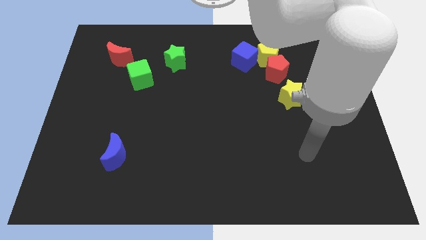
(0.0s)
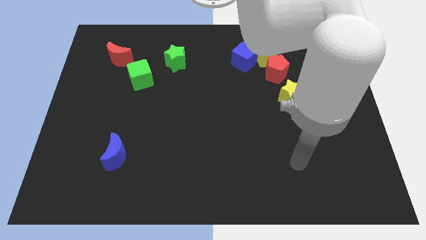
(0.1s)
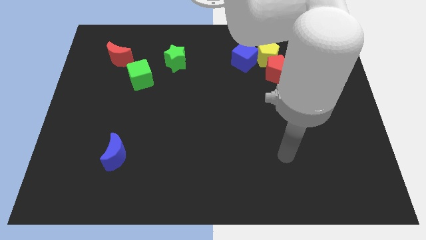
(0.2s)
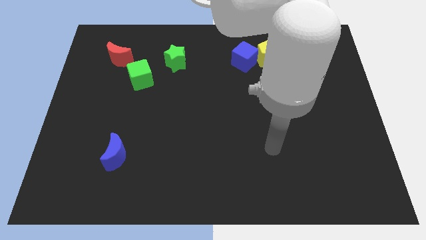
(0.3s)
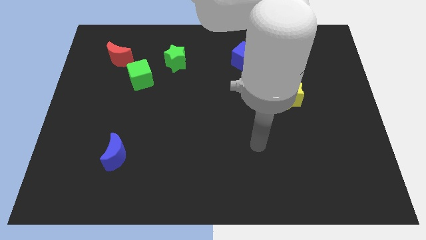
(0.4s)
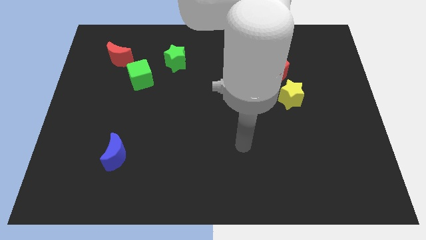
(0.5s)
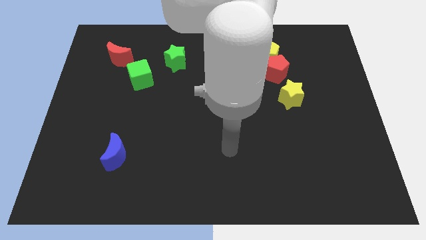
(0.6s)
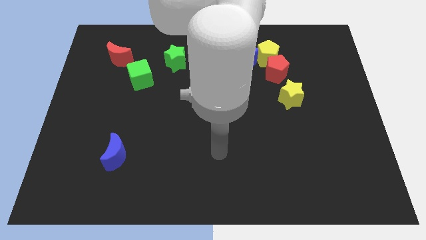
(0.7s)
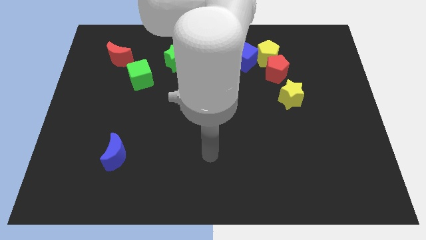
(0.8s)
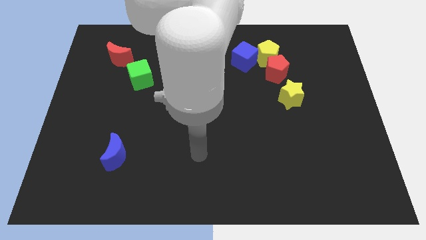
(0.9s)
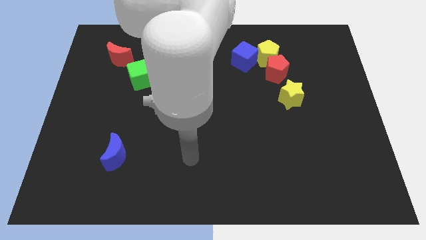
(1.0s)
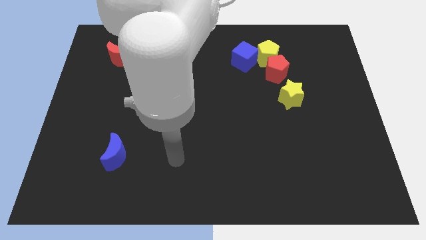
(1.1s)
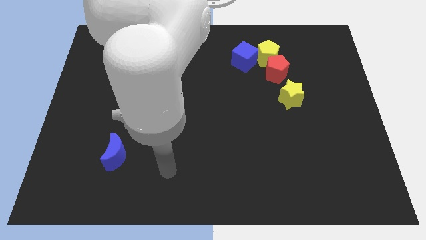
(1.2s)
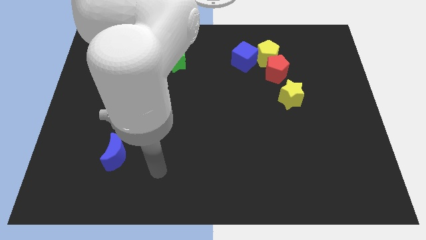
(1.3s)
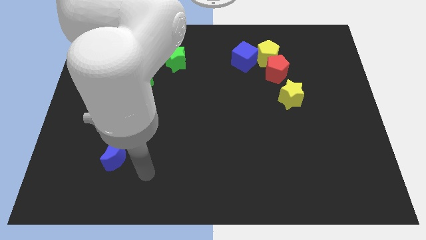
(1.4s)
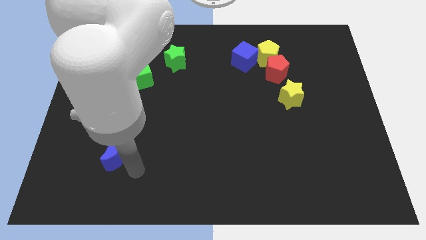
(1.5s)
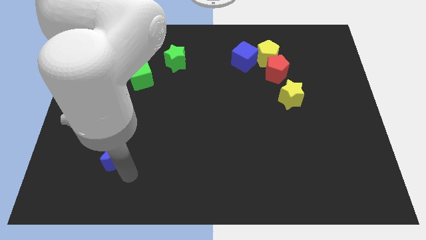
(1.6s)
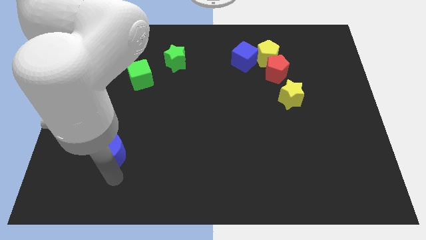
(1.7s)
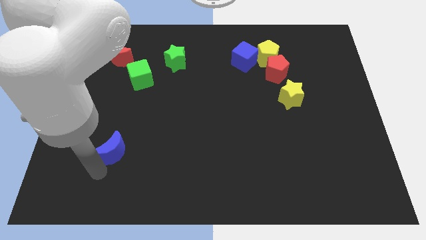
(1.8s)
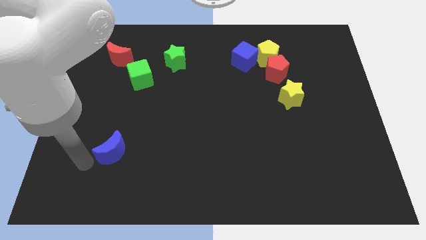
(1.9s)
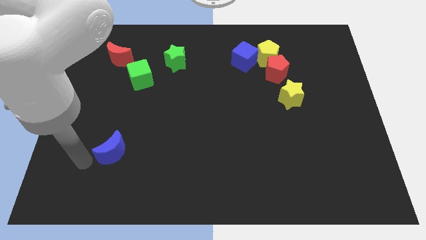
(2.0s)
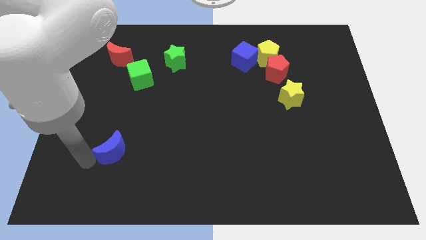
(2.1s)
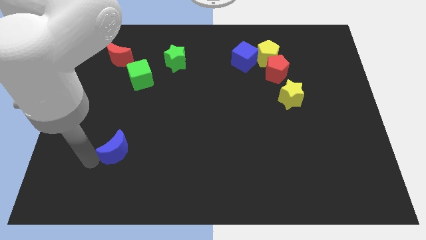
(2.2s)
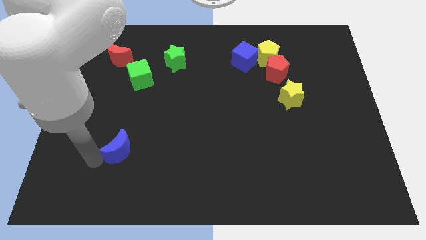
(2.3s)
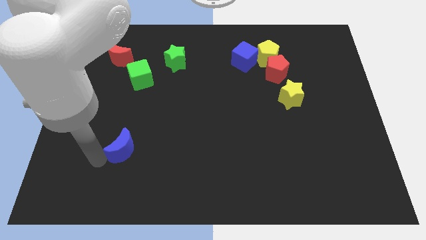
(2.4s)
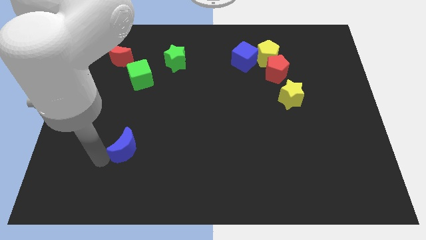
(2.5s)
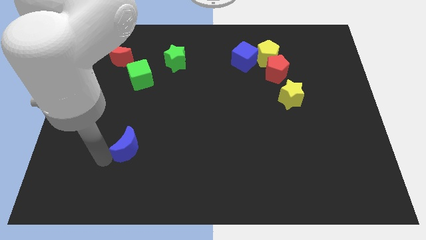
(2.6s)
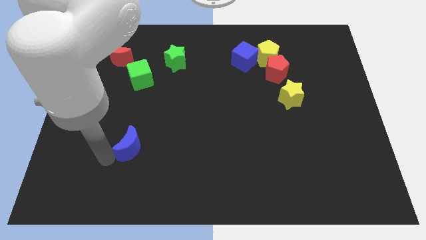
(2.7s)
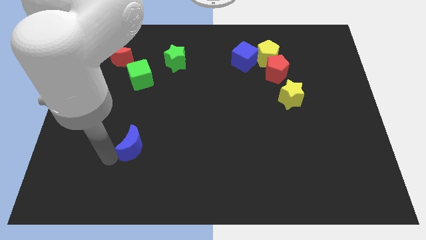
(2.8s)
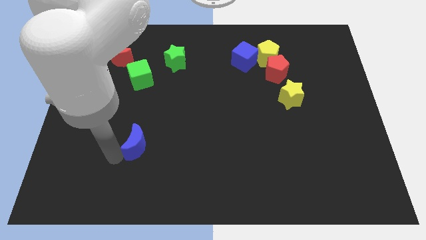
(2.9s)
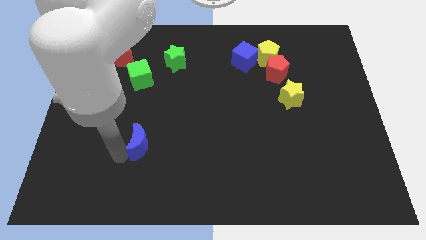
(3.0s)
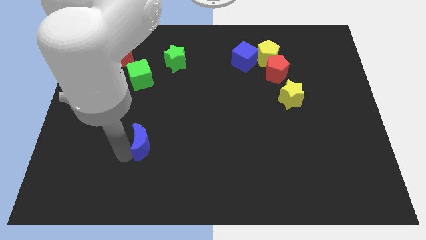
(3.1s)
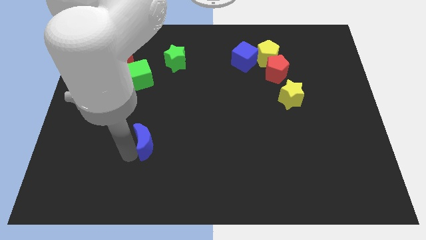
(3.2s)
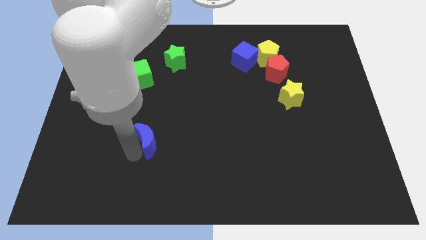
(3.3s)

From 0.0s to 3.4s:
slide the blue moon diagonally up and right slightly

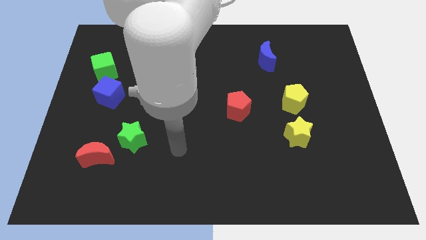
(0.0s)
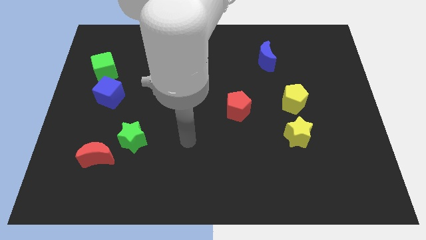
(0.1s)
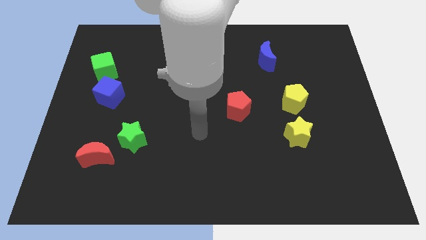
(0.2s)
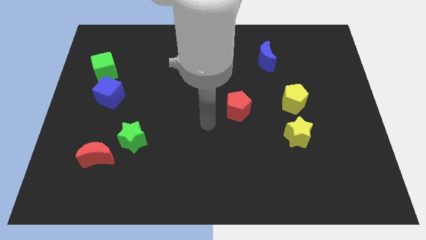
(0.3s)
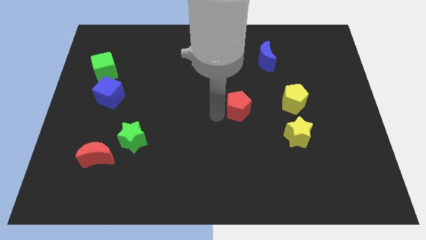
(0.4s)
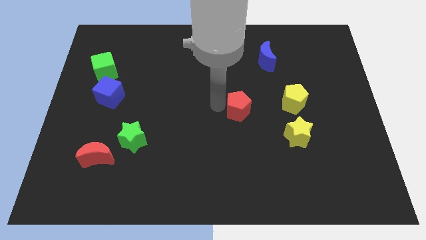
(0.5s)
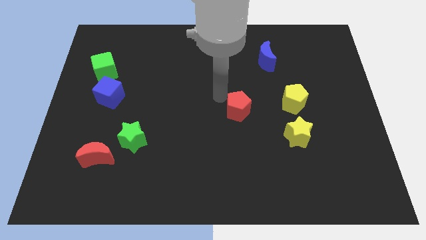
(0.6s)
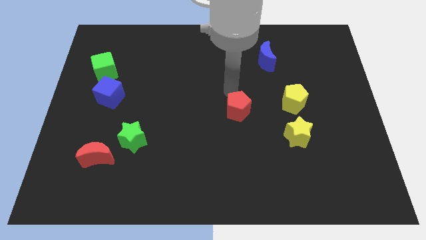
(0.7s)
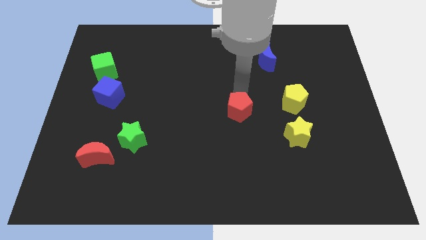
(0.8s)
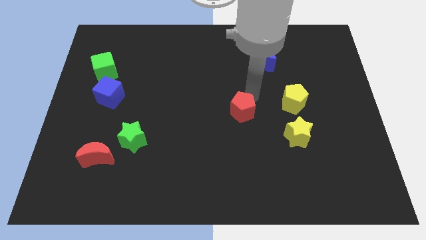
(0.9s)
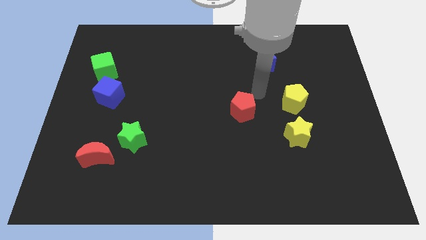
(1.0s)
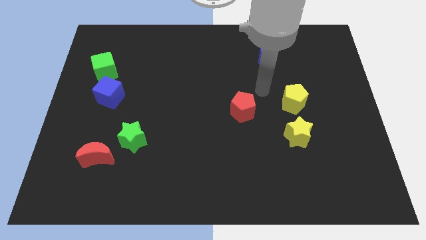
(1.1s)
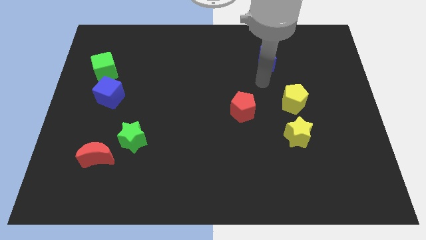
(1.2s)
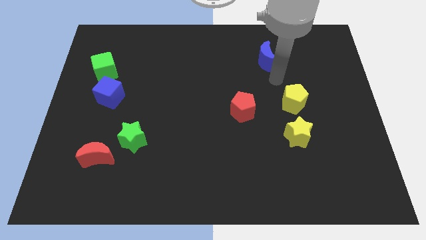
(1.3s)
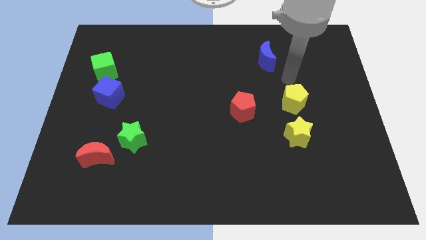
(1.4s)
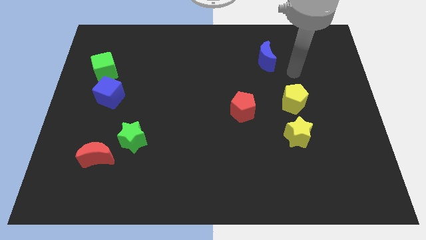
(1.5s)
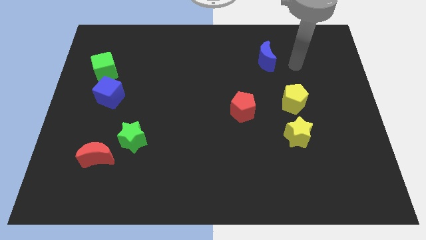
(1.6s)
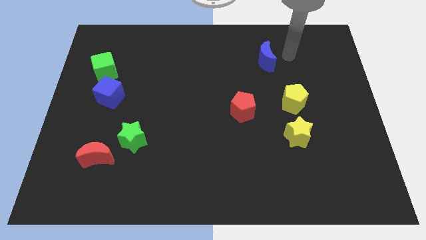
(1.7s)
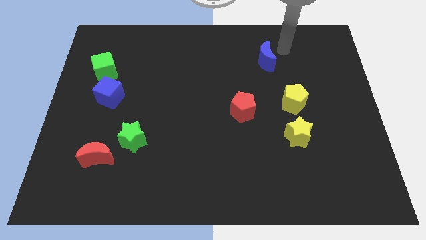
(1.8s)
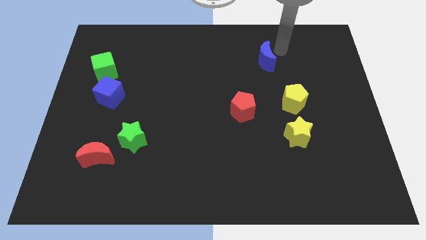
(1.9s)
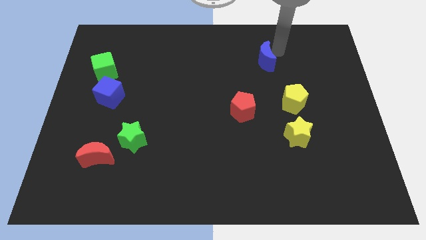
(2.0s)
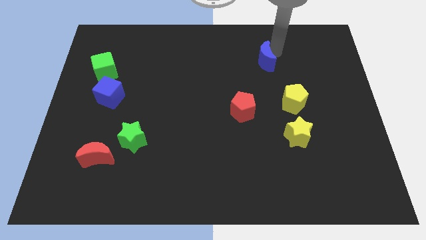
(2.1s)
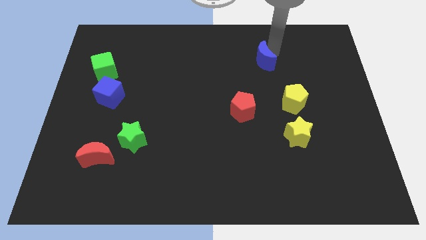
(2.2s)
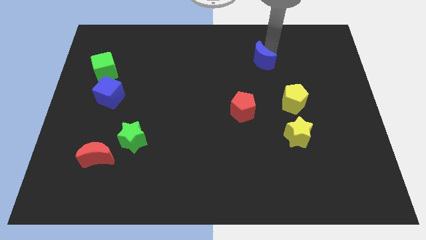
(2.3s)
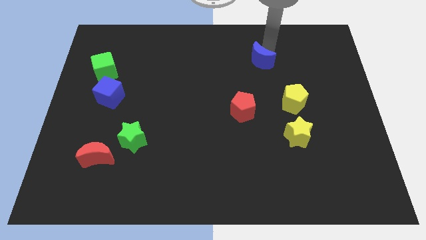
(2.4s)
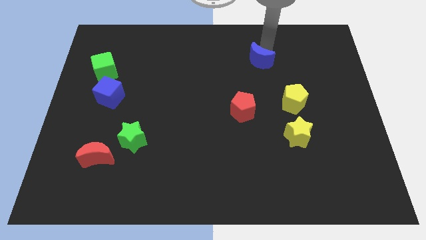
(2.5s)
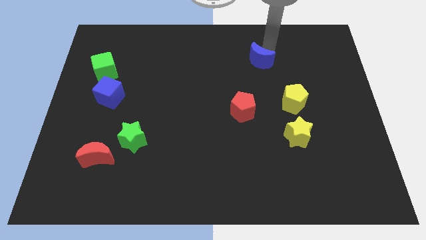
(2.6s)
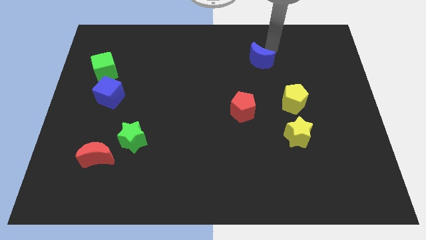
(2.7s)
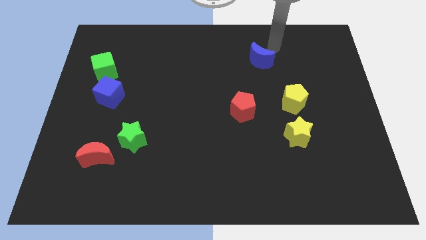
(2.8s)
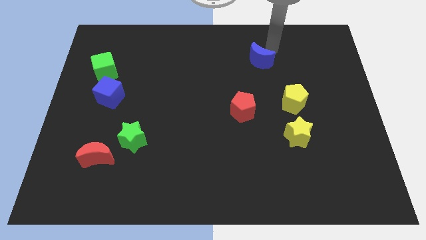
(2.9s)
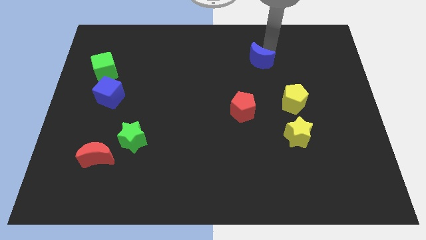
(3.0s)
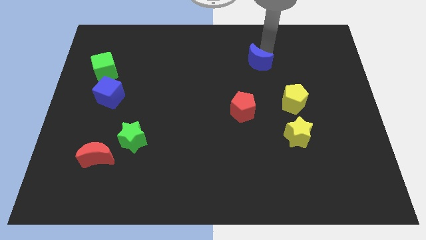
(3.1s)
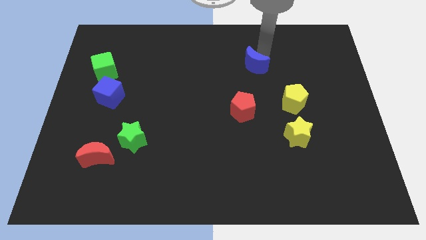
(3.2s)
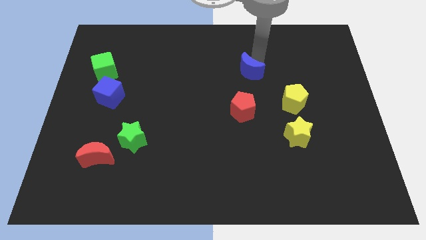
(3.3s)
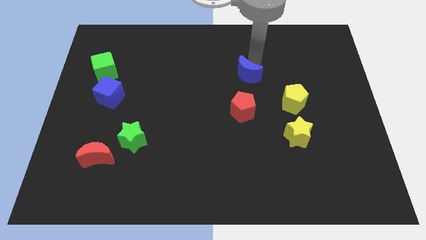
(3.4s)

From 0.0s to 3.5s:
move the blue moon down and to the left diagonally slightly

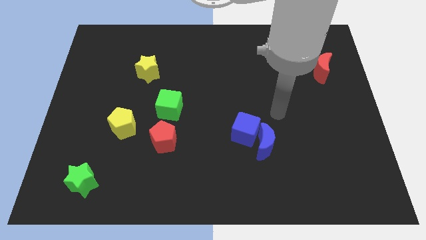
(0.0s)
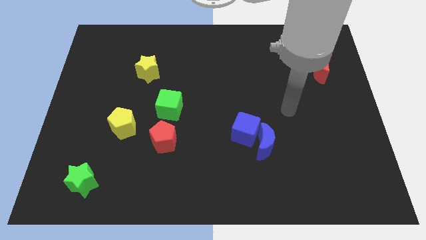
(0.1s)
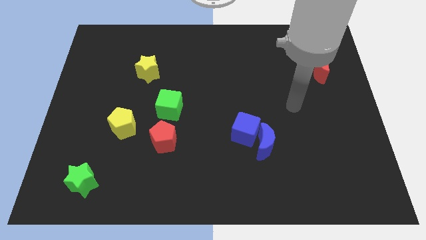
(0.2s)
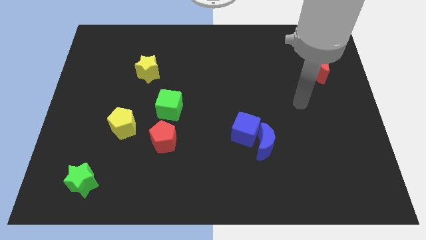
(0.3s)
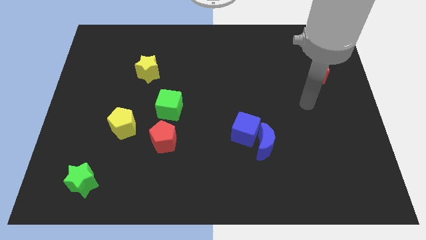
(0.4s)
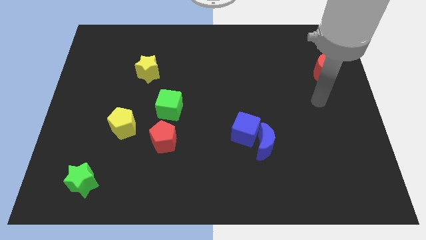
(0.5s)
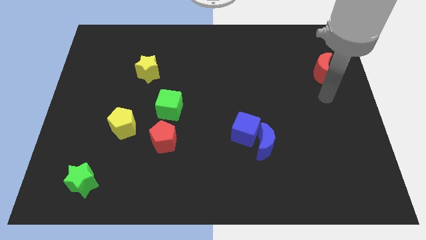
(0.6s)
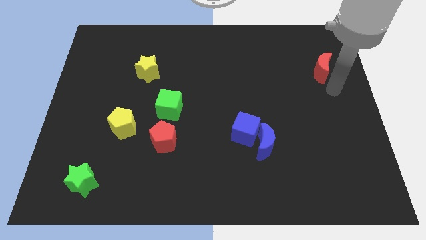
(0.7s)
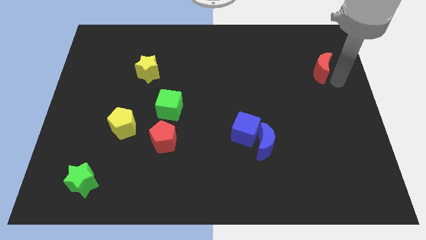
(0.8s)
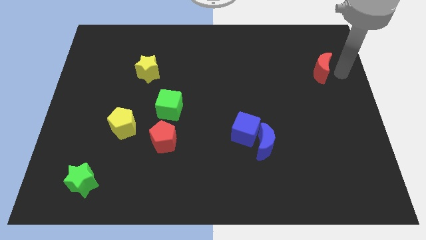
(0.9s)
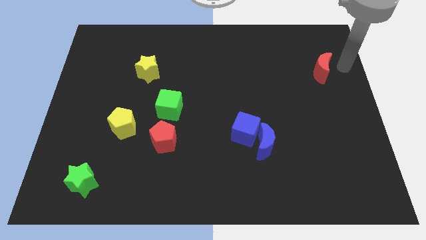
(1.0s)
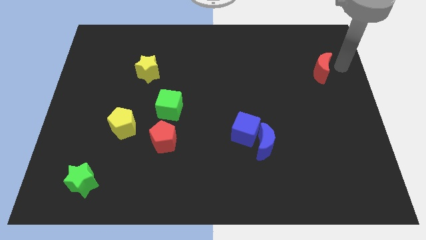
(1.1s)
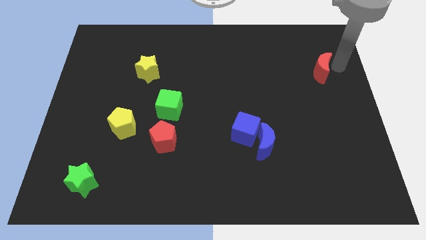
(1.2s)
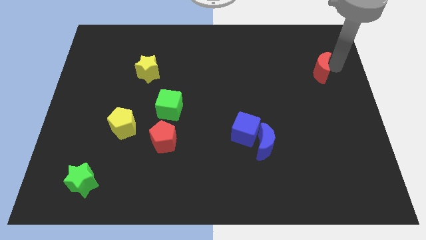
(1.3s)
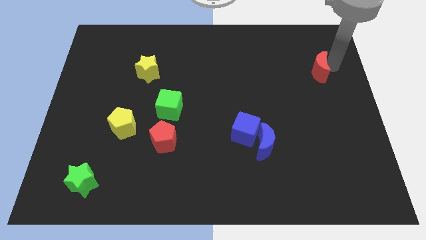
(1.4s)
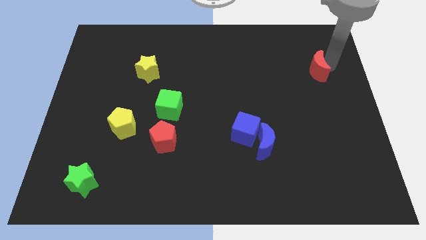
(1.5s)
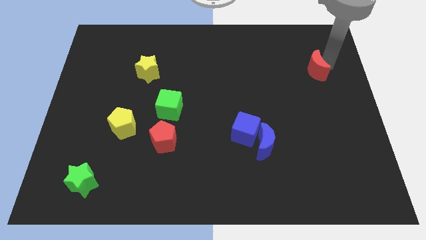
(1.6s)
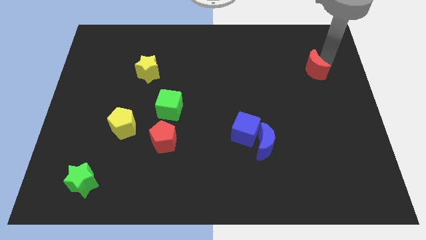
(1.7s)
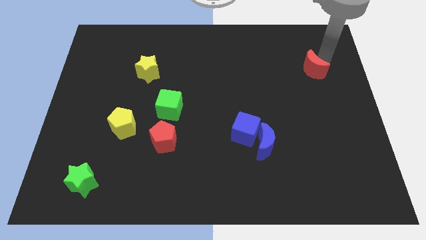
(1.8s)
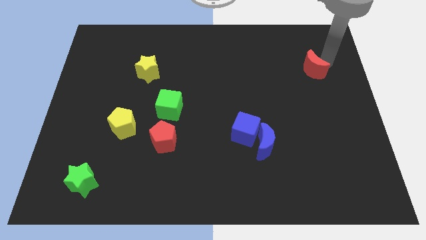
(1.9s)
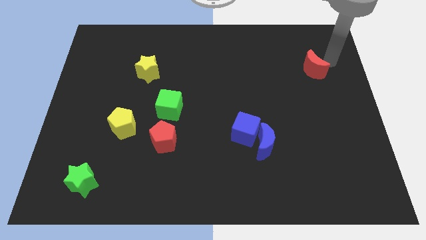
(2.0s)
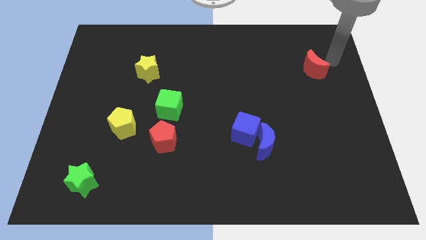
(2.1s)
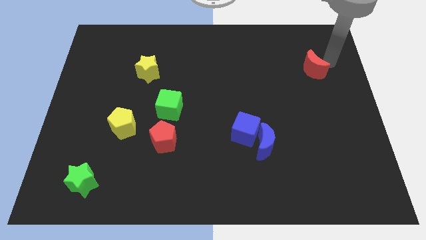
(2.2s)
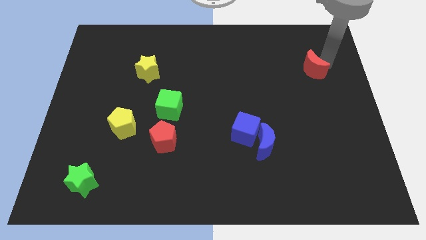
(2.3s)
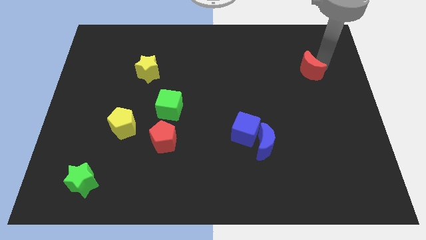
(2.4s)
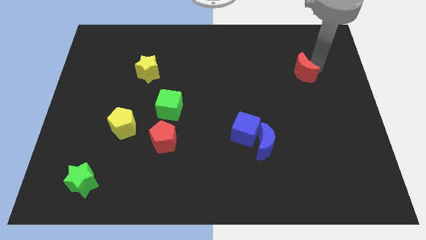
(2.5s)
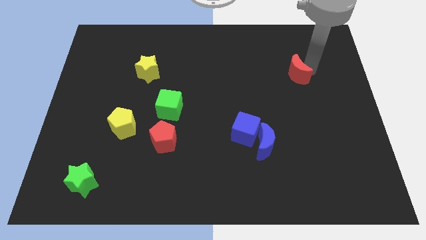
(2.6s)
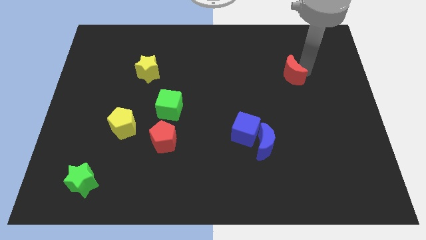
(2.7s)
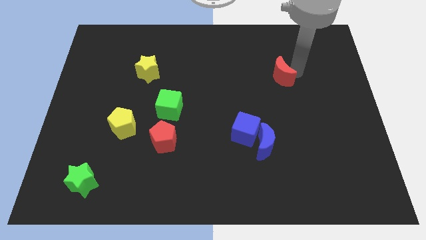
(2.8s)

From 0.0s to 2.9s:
push the red moon downwards and then left a little bit
